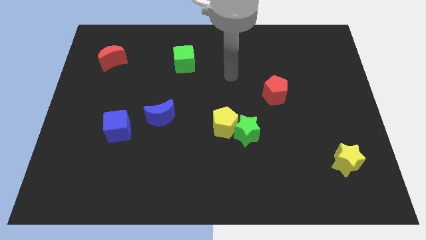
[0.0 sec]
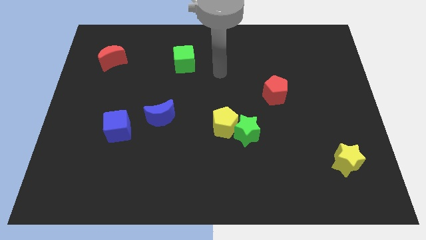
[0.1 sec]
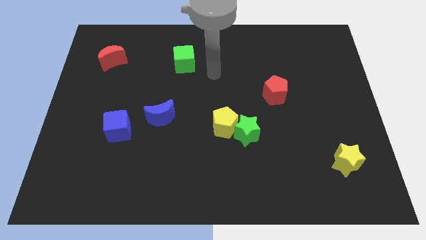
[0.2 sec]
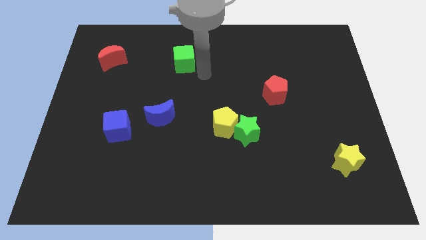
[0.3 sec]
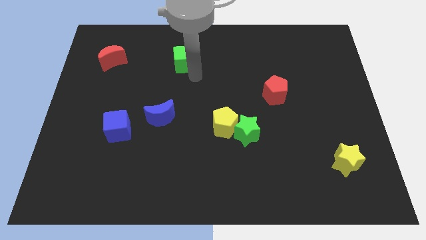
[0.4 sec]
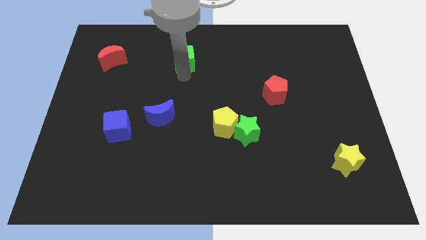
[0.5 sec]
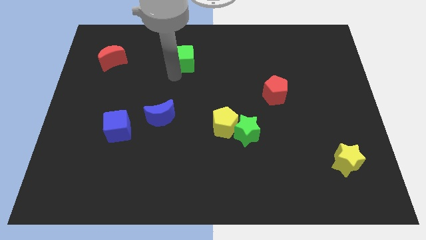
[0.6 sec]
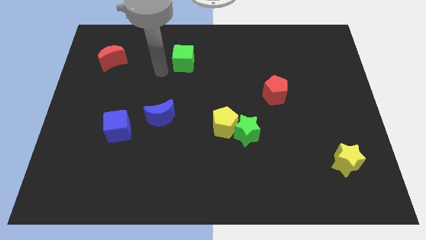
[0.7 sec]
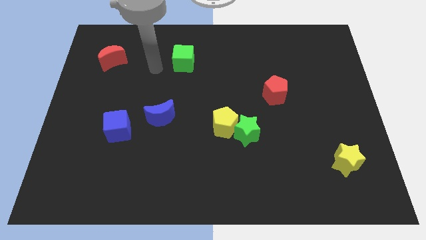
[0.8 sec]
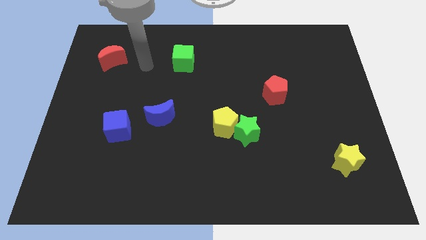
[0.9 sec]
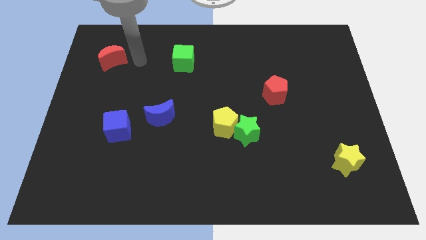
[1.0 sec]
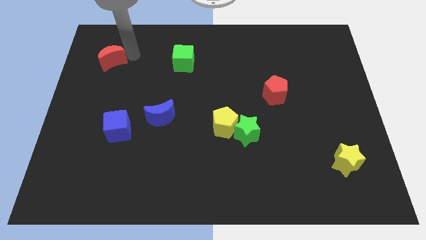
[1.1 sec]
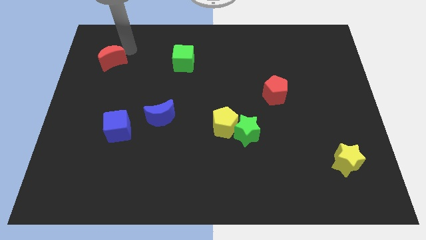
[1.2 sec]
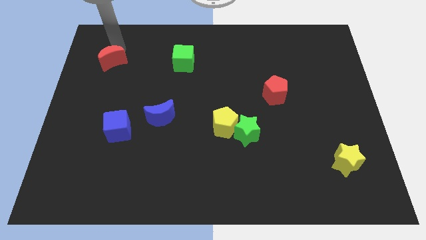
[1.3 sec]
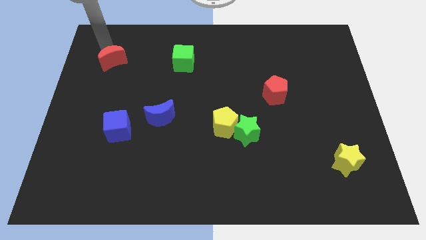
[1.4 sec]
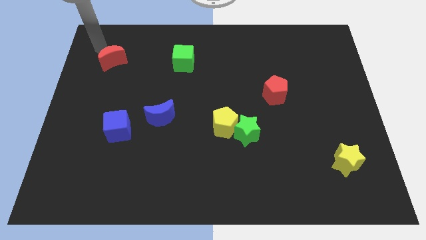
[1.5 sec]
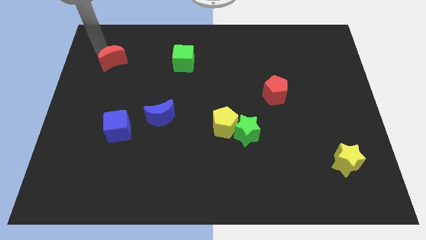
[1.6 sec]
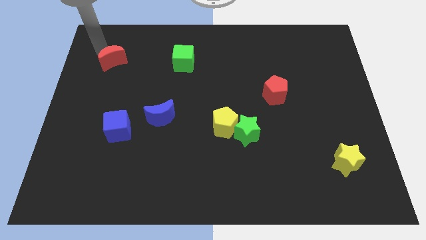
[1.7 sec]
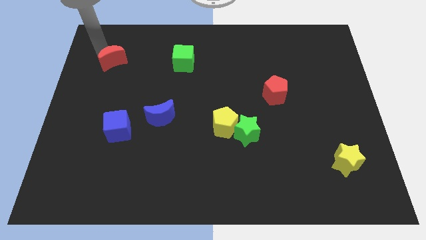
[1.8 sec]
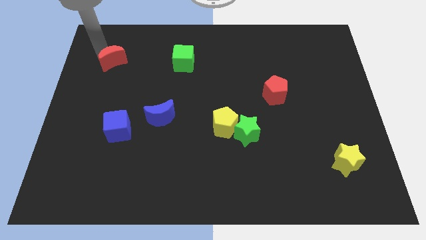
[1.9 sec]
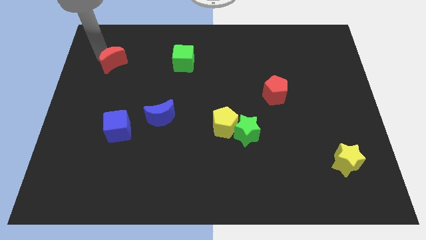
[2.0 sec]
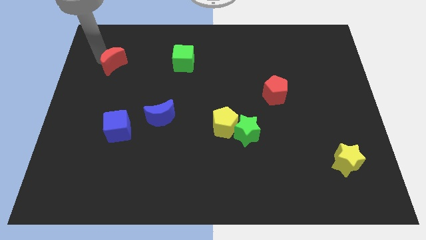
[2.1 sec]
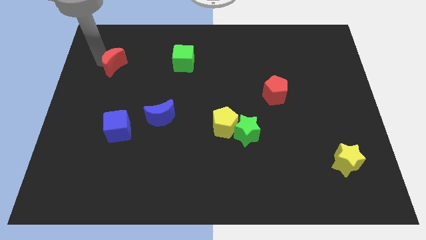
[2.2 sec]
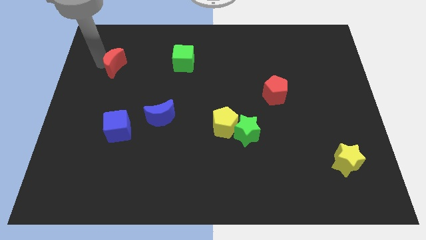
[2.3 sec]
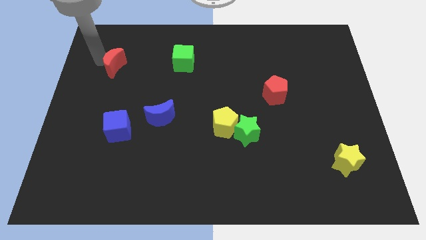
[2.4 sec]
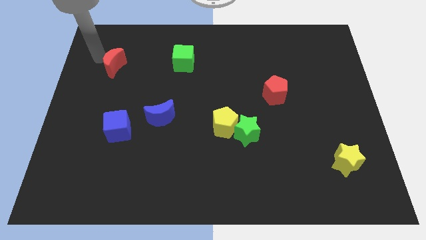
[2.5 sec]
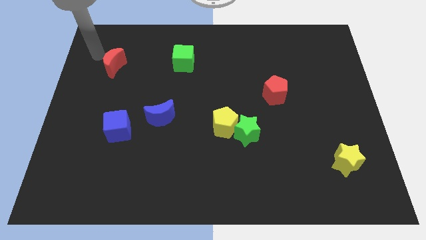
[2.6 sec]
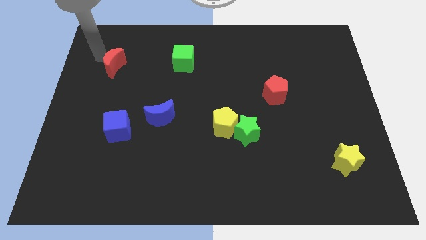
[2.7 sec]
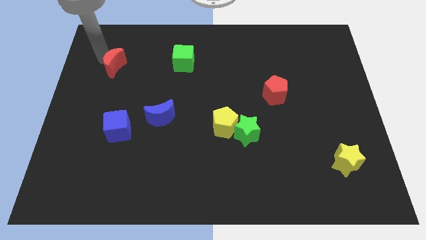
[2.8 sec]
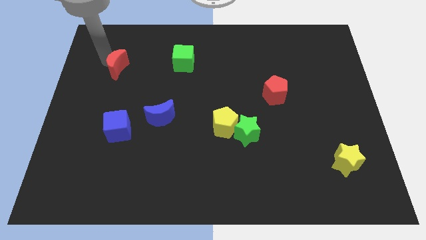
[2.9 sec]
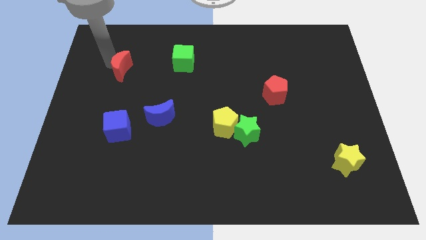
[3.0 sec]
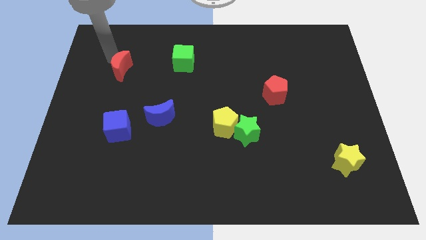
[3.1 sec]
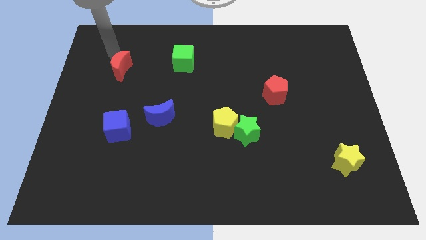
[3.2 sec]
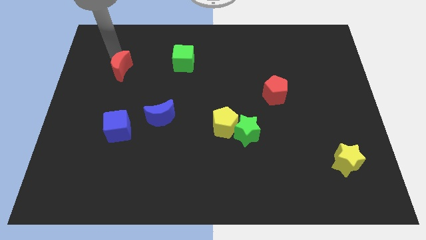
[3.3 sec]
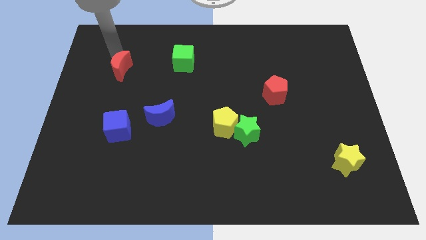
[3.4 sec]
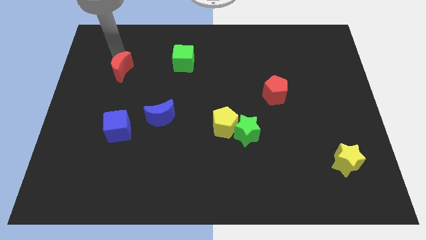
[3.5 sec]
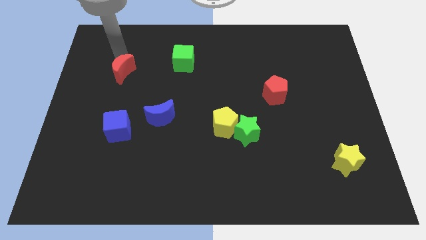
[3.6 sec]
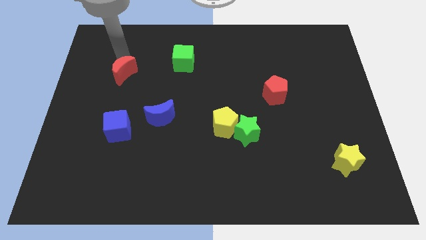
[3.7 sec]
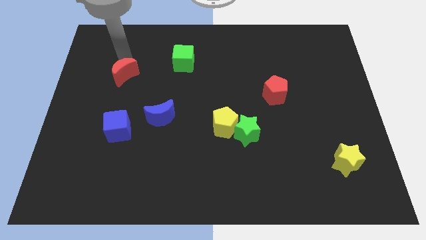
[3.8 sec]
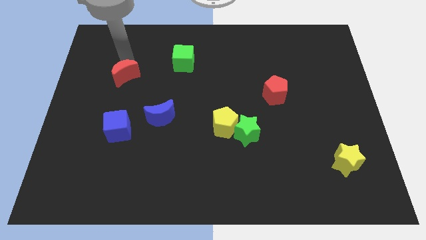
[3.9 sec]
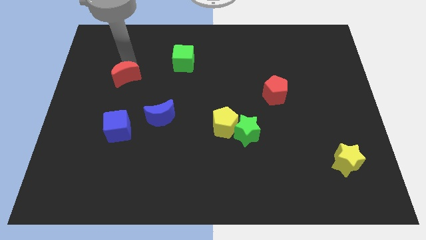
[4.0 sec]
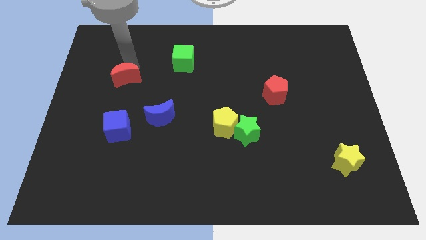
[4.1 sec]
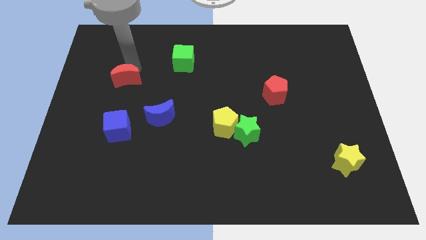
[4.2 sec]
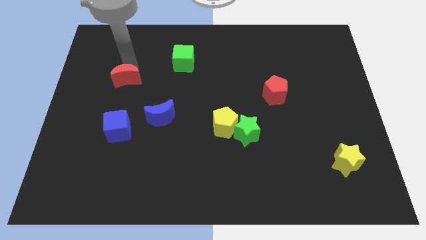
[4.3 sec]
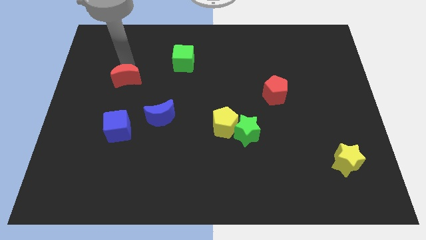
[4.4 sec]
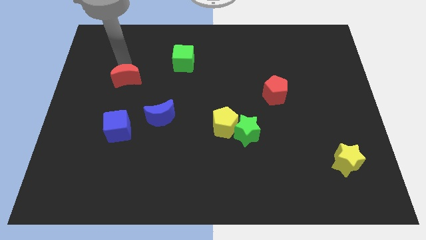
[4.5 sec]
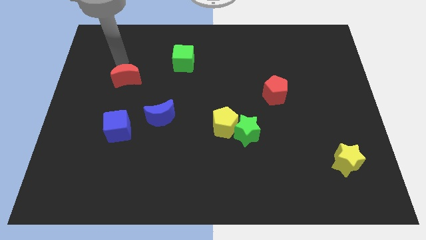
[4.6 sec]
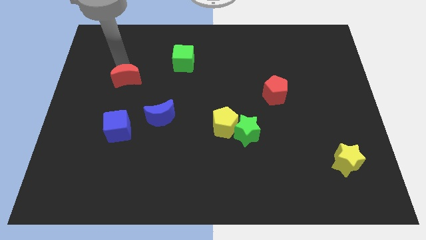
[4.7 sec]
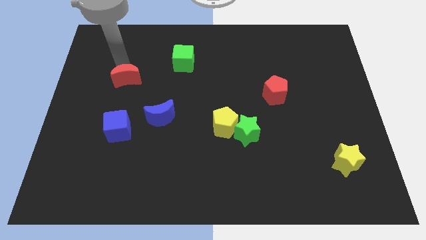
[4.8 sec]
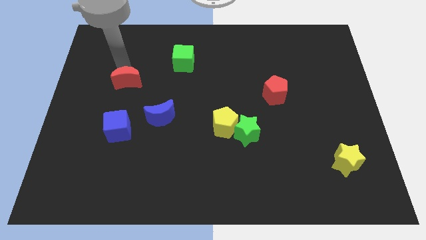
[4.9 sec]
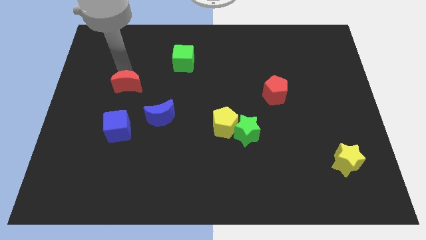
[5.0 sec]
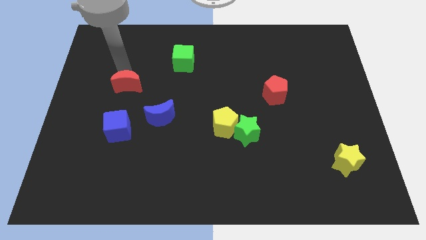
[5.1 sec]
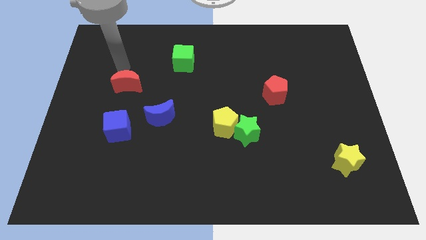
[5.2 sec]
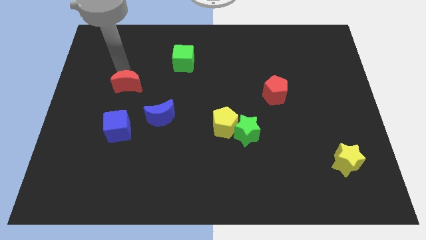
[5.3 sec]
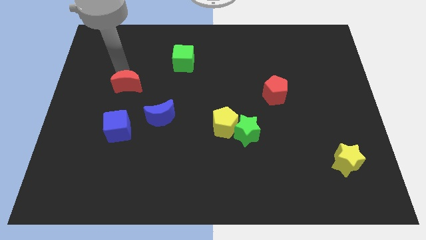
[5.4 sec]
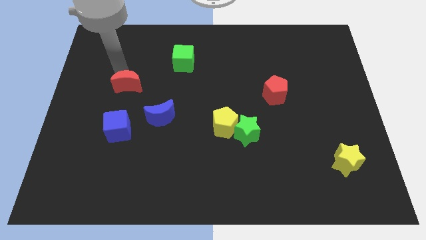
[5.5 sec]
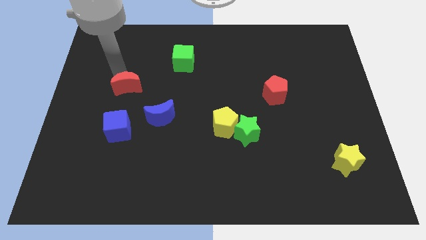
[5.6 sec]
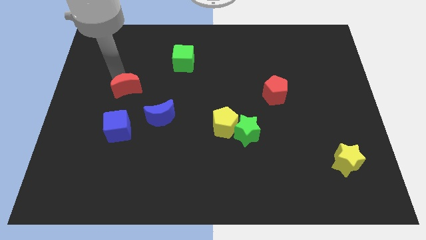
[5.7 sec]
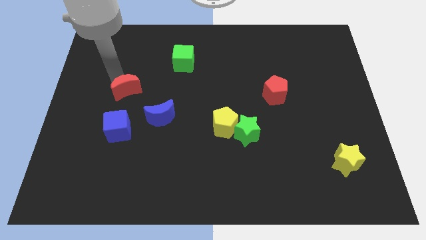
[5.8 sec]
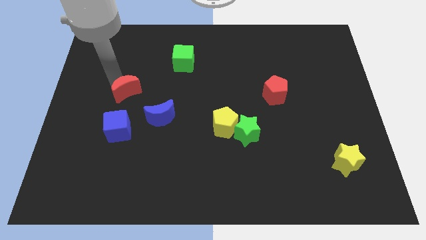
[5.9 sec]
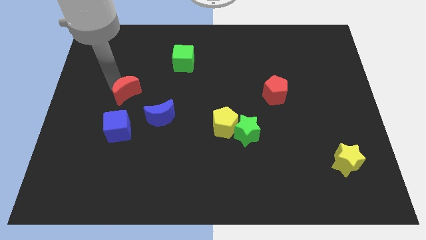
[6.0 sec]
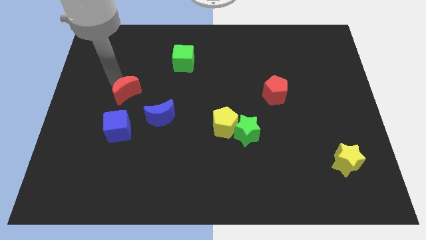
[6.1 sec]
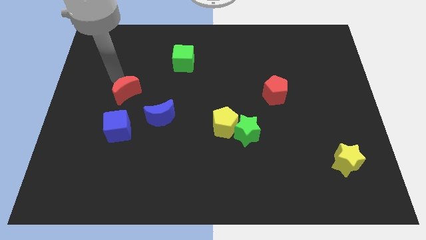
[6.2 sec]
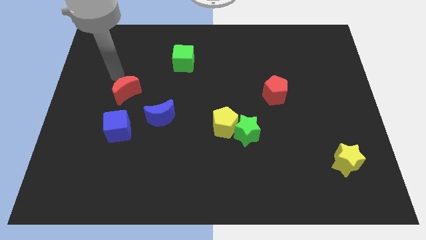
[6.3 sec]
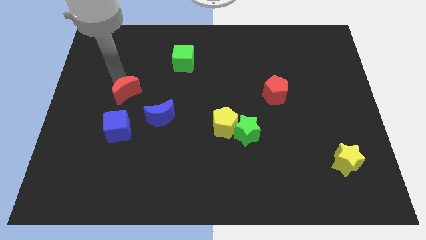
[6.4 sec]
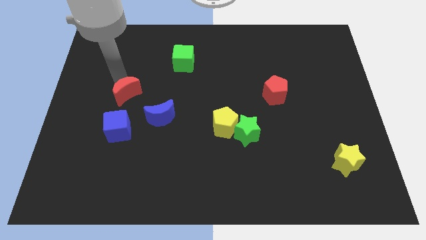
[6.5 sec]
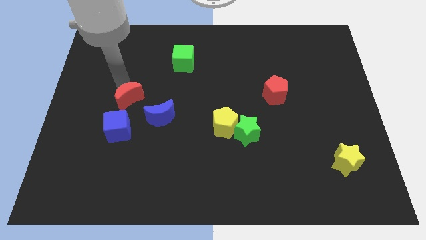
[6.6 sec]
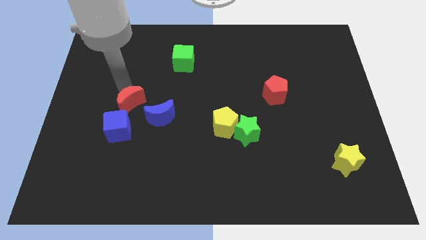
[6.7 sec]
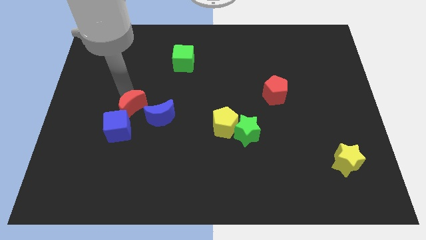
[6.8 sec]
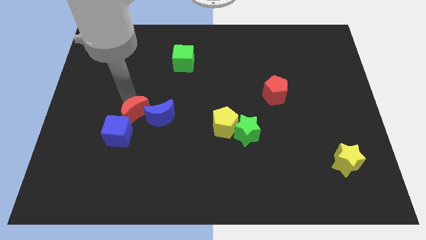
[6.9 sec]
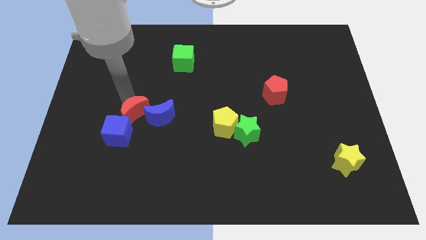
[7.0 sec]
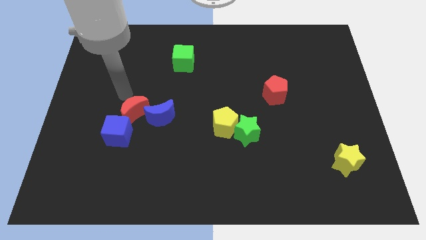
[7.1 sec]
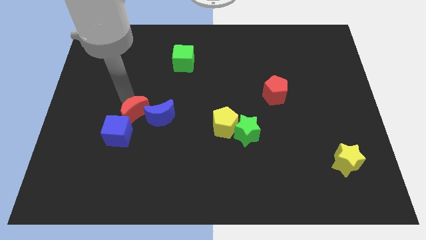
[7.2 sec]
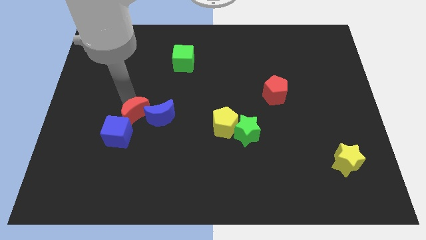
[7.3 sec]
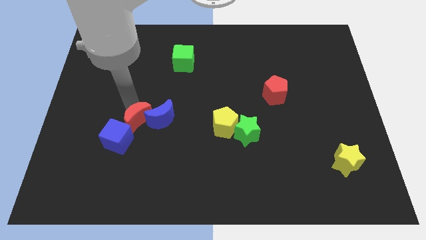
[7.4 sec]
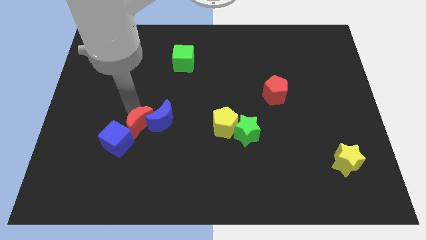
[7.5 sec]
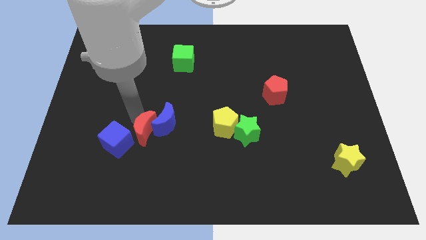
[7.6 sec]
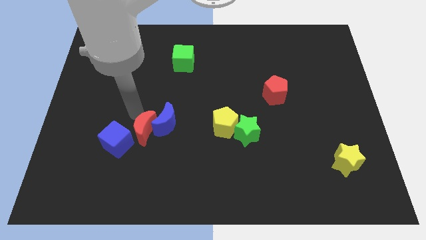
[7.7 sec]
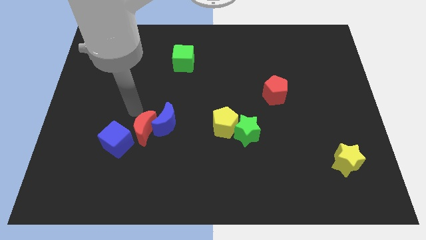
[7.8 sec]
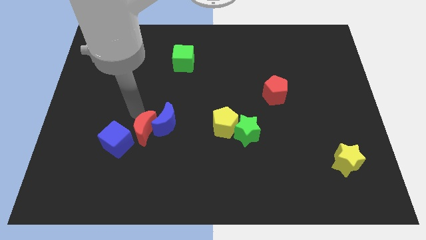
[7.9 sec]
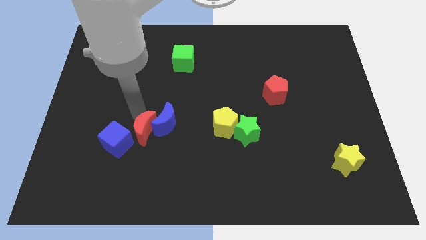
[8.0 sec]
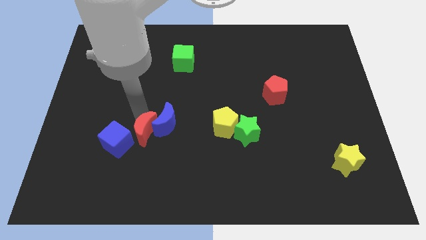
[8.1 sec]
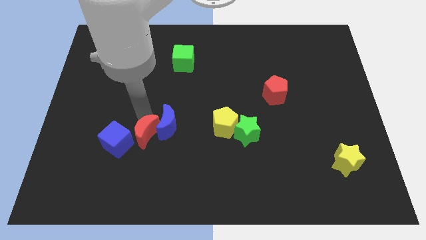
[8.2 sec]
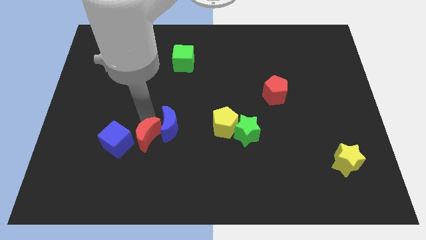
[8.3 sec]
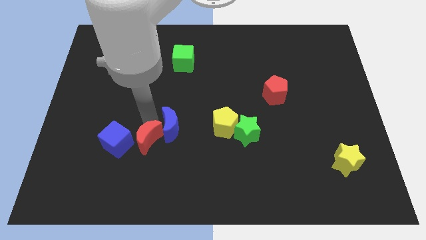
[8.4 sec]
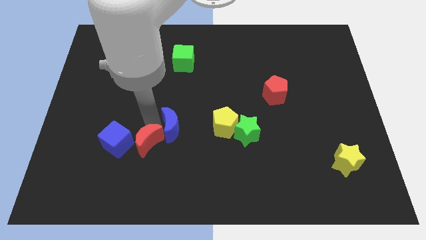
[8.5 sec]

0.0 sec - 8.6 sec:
move the red moon below the blue moon
